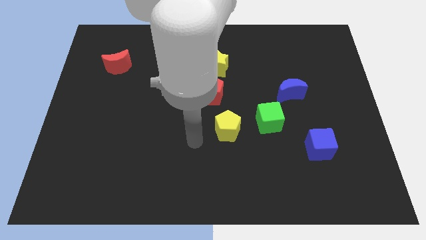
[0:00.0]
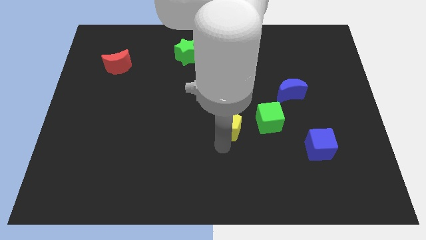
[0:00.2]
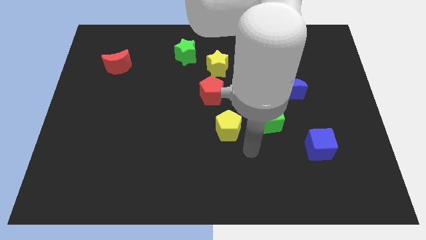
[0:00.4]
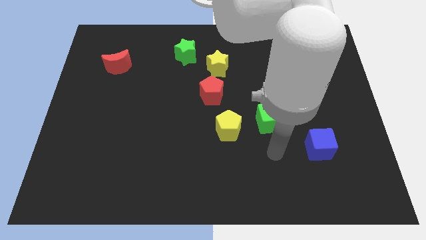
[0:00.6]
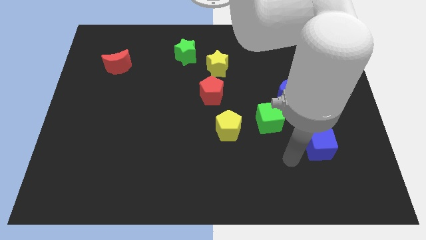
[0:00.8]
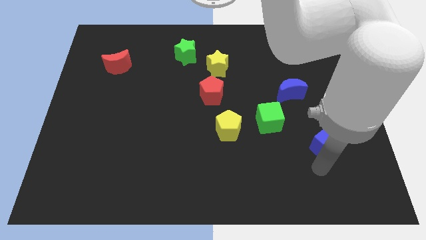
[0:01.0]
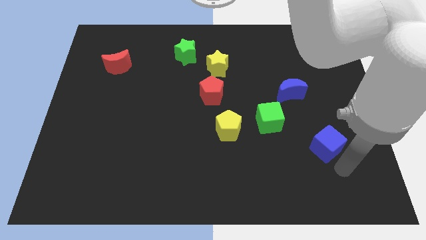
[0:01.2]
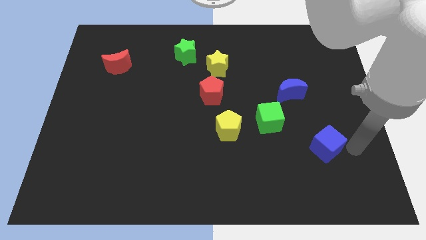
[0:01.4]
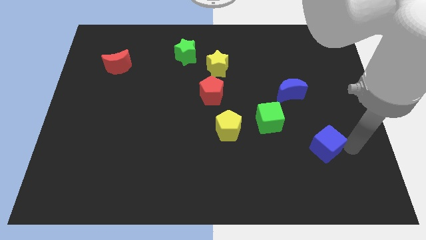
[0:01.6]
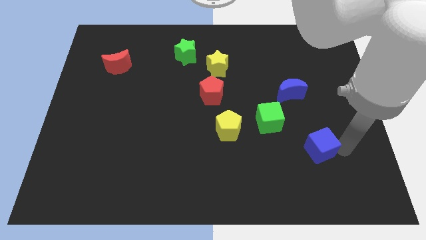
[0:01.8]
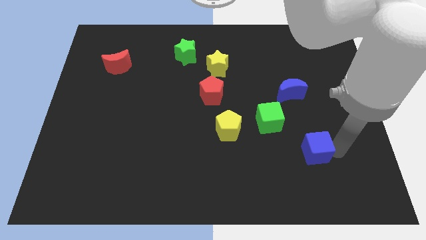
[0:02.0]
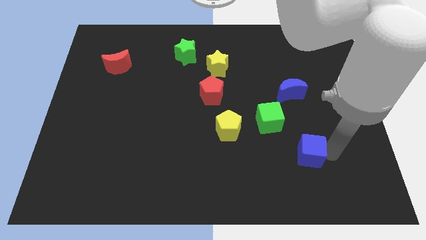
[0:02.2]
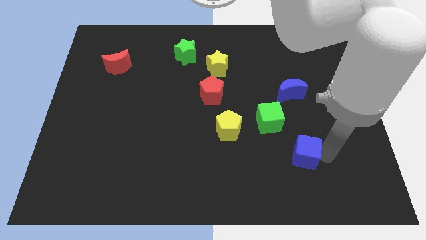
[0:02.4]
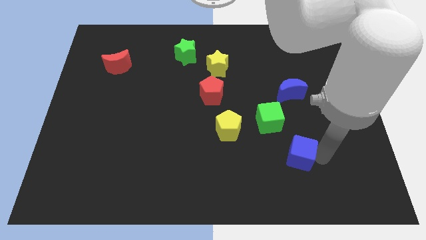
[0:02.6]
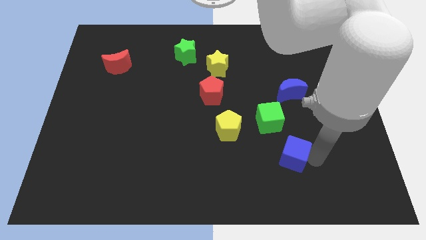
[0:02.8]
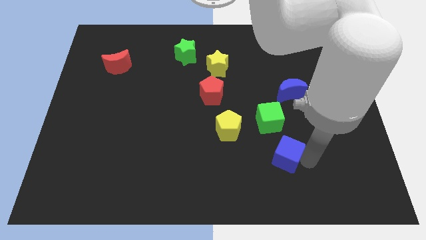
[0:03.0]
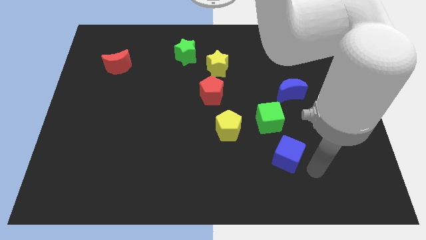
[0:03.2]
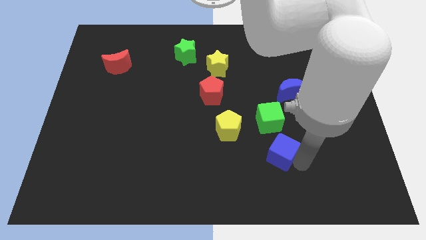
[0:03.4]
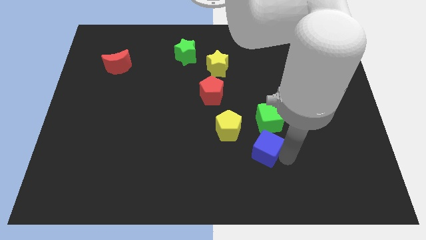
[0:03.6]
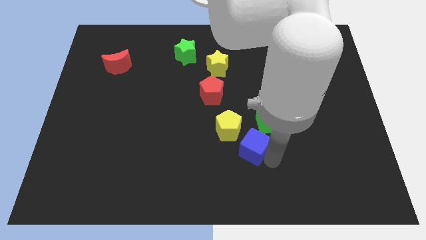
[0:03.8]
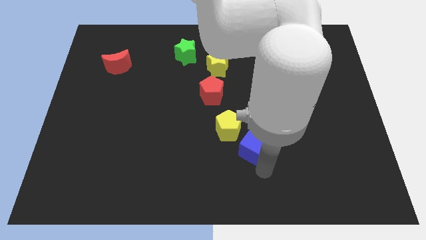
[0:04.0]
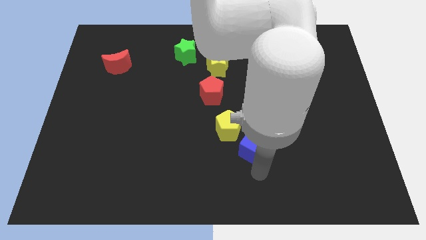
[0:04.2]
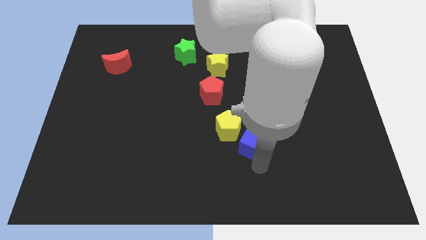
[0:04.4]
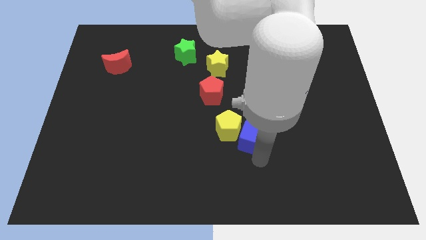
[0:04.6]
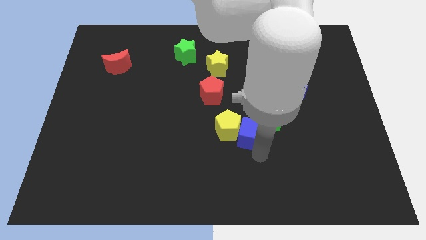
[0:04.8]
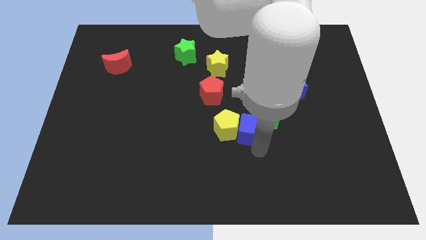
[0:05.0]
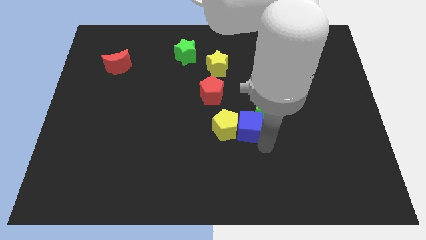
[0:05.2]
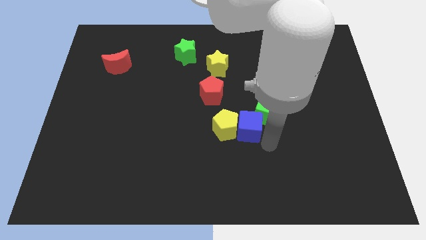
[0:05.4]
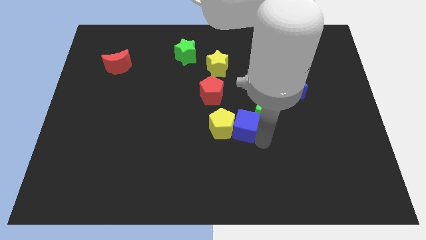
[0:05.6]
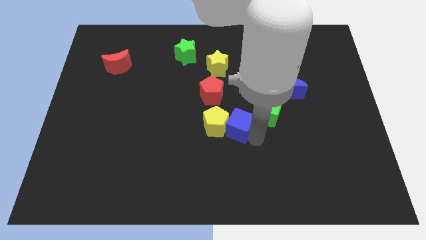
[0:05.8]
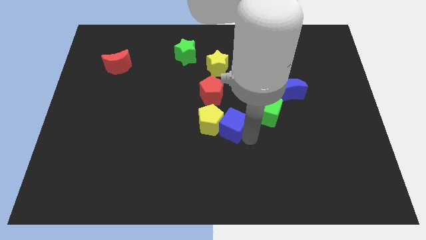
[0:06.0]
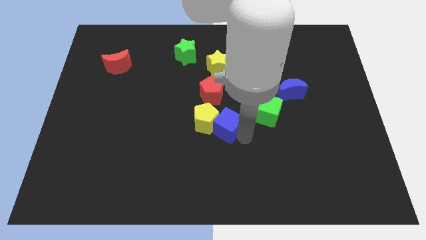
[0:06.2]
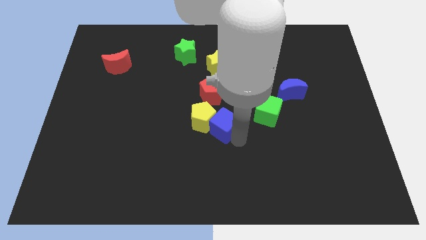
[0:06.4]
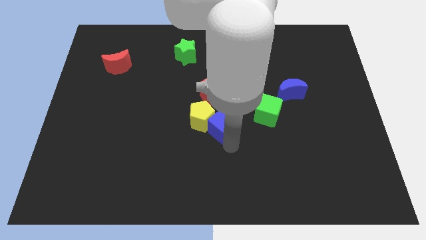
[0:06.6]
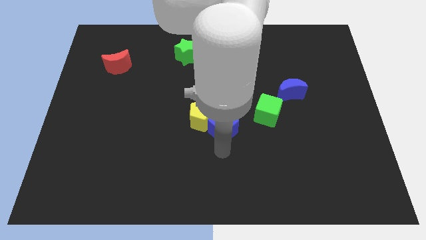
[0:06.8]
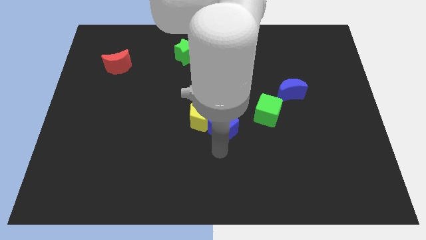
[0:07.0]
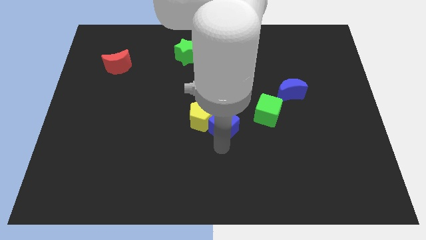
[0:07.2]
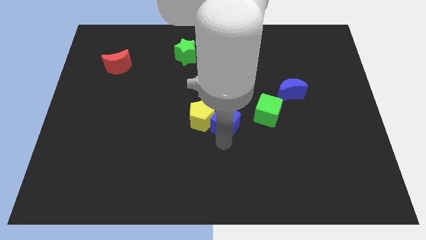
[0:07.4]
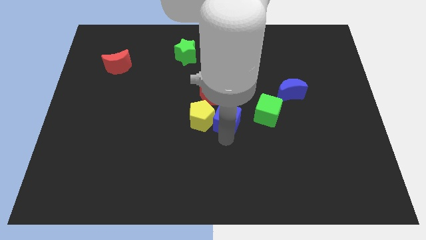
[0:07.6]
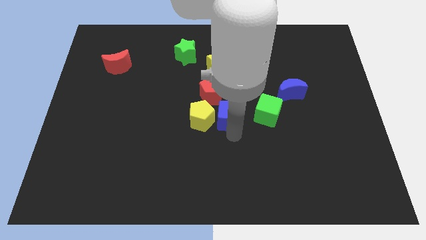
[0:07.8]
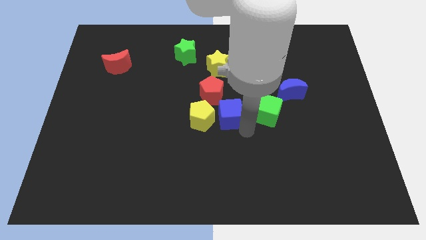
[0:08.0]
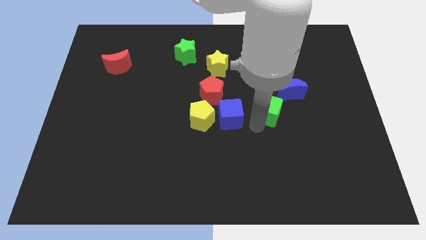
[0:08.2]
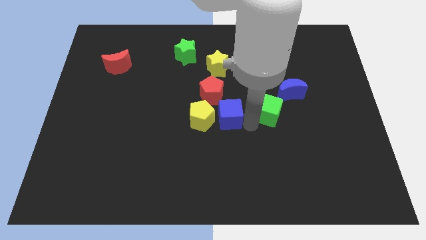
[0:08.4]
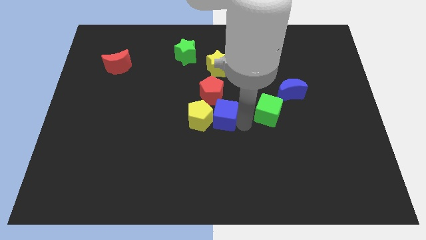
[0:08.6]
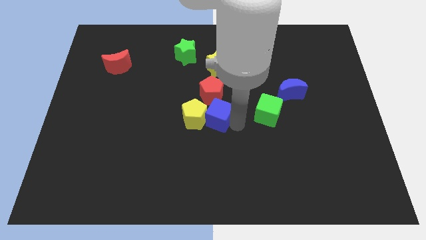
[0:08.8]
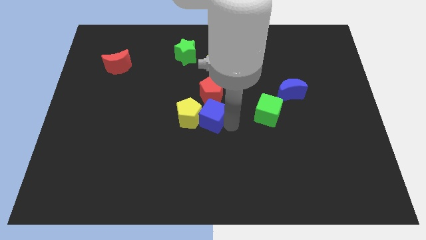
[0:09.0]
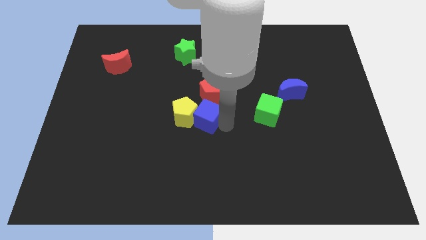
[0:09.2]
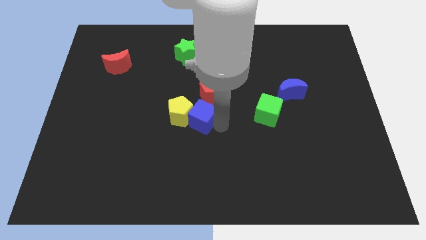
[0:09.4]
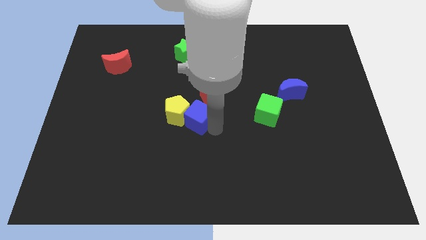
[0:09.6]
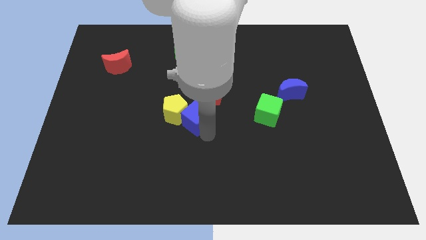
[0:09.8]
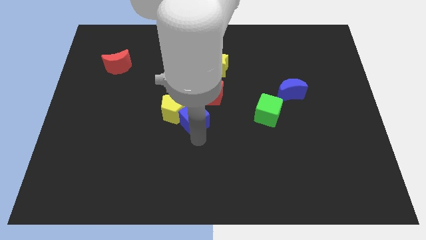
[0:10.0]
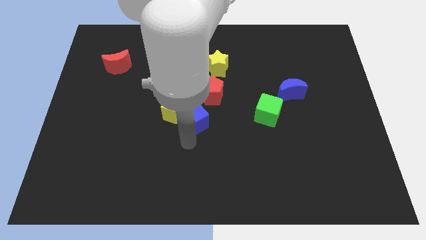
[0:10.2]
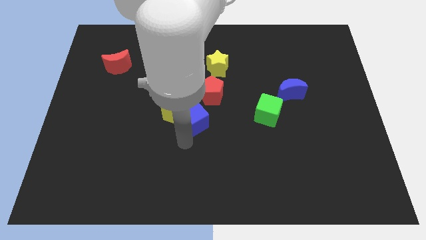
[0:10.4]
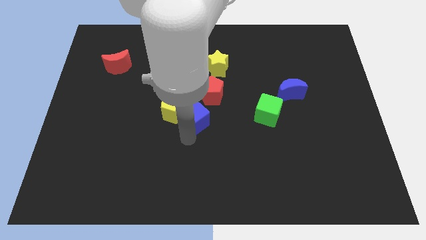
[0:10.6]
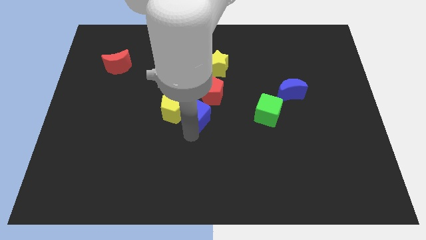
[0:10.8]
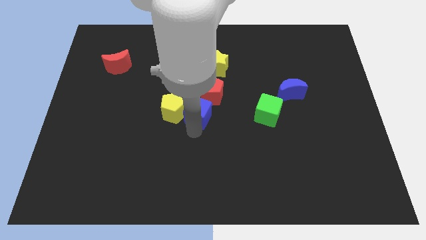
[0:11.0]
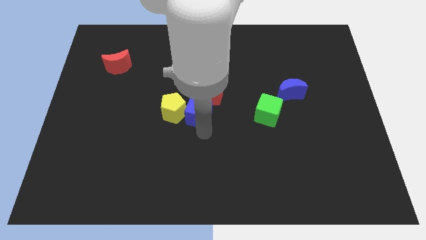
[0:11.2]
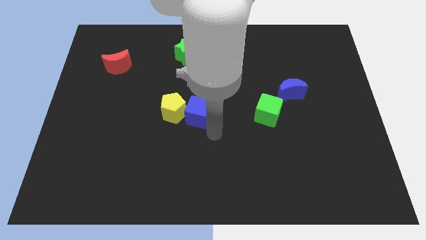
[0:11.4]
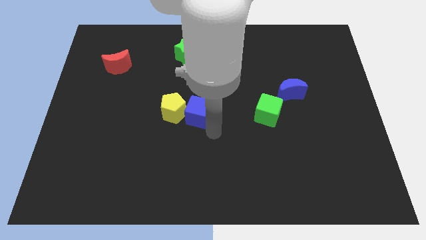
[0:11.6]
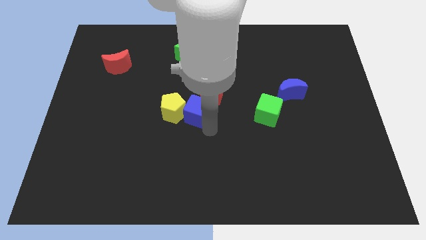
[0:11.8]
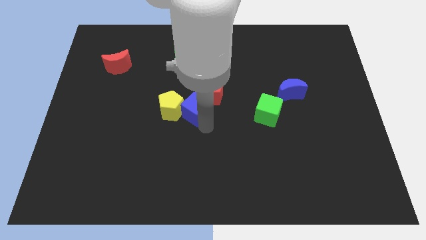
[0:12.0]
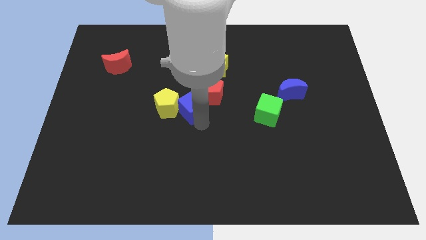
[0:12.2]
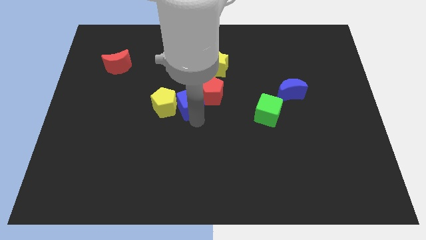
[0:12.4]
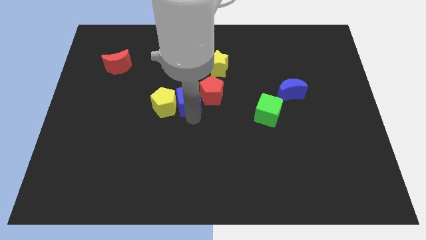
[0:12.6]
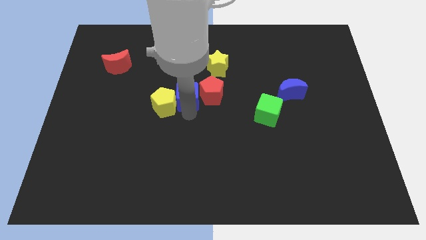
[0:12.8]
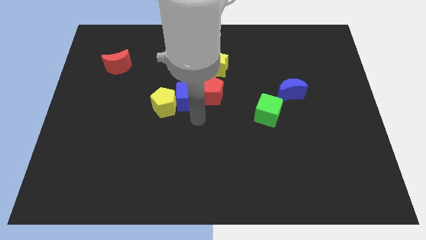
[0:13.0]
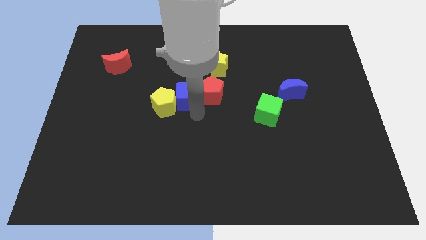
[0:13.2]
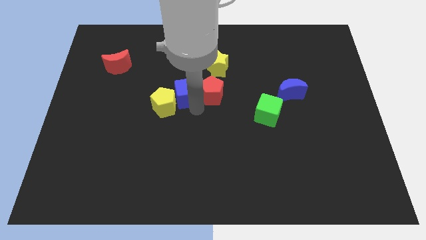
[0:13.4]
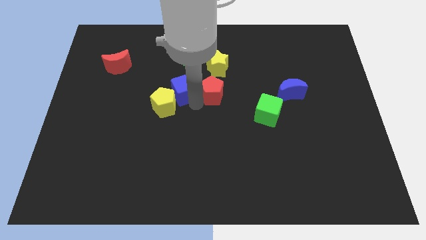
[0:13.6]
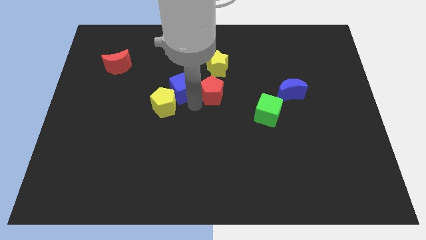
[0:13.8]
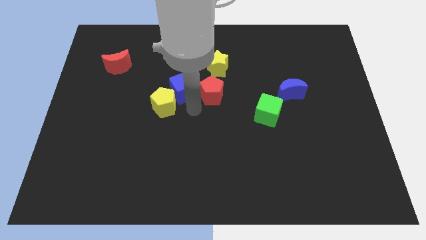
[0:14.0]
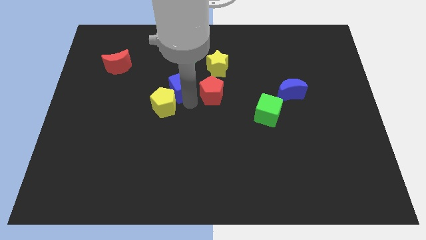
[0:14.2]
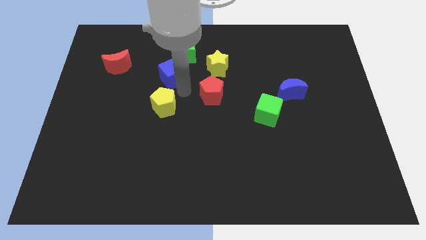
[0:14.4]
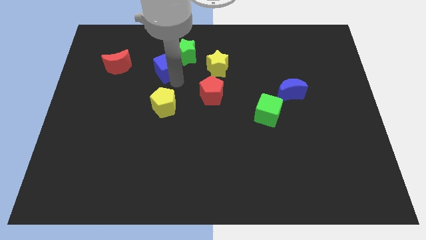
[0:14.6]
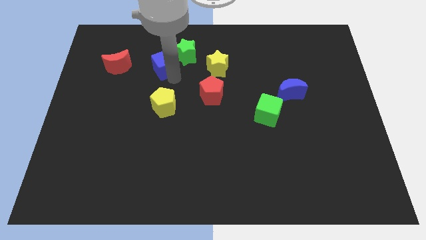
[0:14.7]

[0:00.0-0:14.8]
slide the blue cube to the left side of the green star

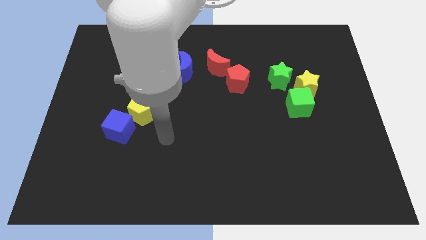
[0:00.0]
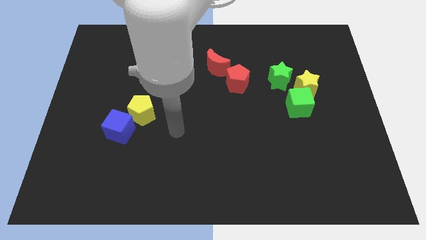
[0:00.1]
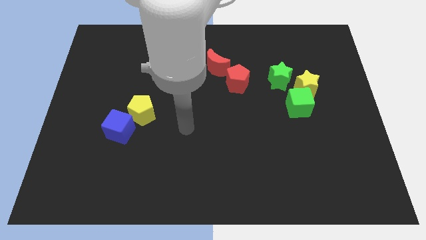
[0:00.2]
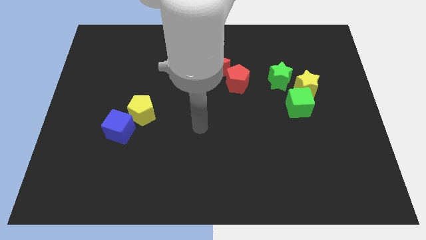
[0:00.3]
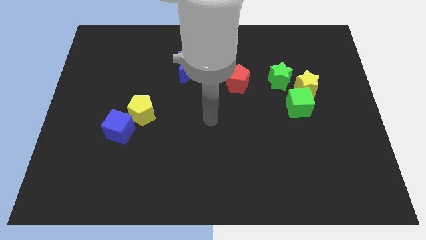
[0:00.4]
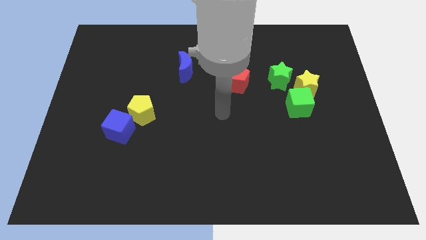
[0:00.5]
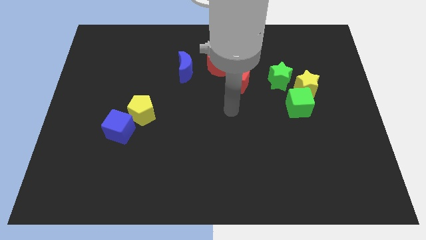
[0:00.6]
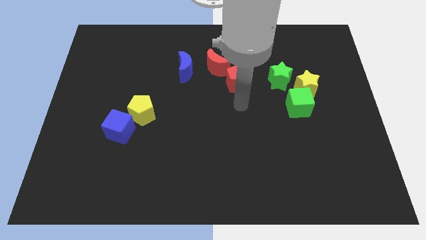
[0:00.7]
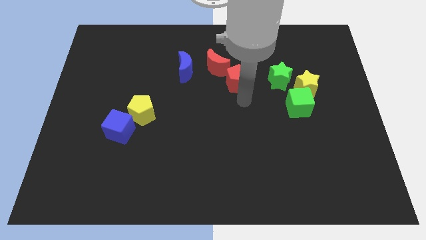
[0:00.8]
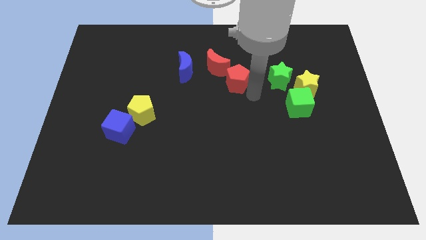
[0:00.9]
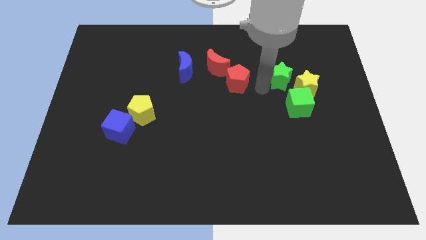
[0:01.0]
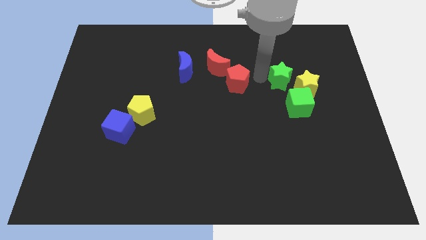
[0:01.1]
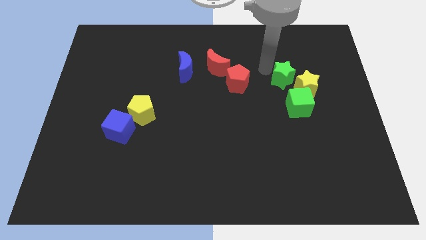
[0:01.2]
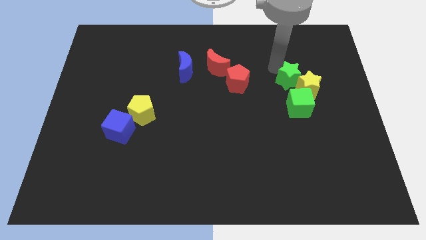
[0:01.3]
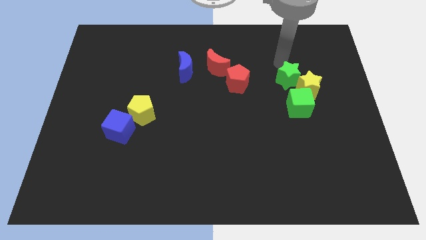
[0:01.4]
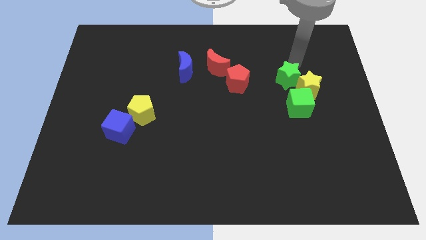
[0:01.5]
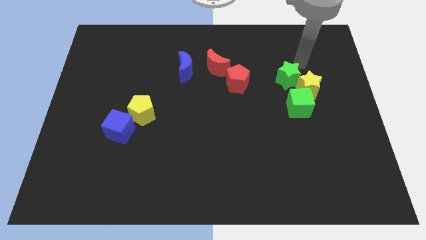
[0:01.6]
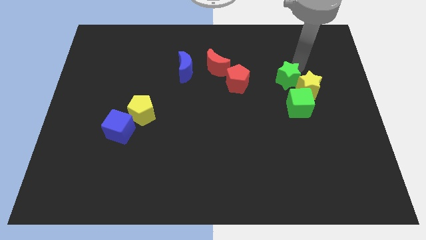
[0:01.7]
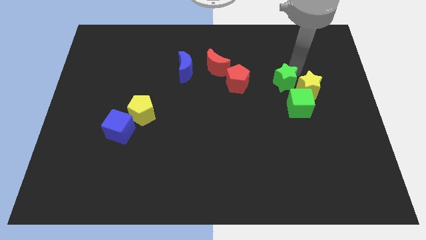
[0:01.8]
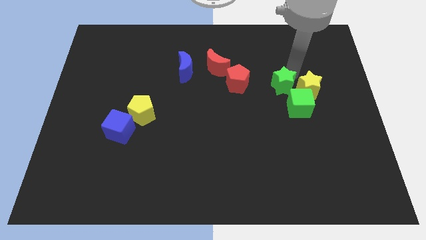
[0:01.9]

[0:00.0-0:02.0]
slide the green star diagonally down and to the left of the yellow star
